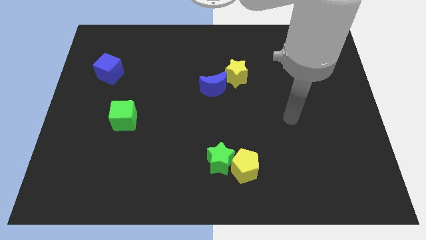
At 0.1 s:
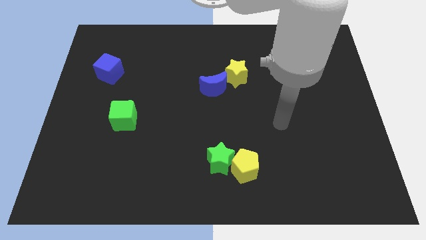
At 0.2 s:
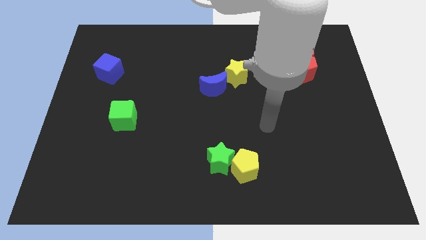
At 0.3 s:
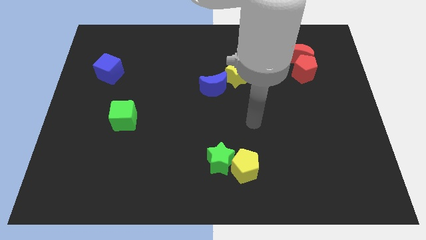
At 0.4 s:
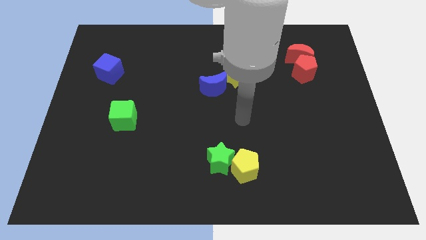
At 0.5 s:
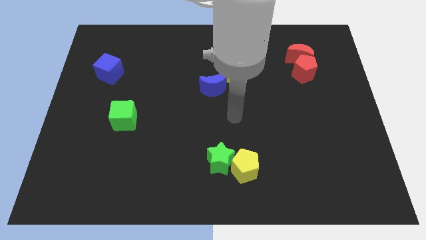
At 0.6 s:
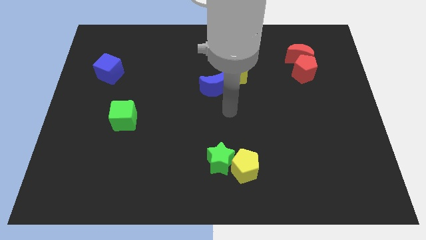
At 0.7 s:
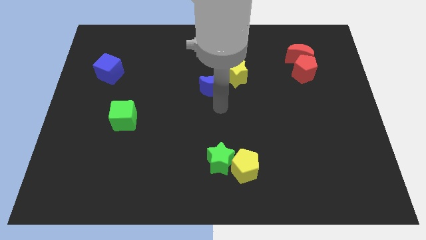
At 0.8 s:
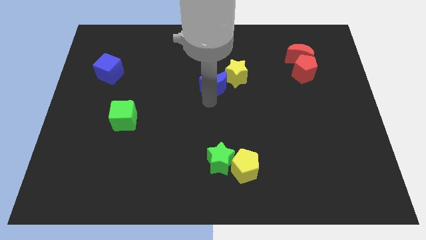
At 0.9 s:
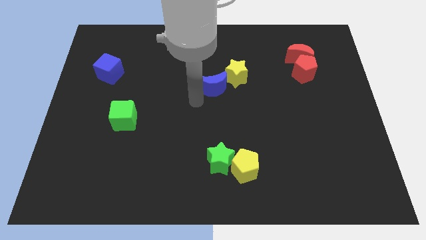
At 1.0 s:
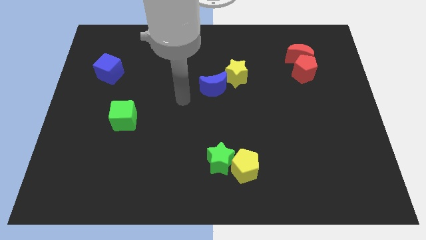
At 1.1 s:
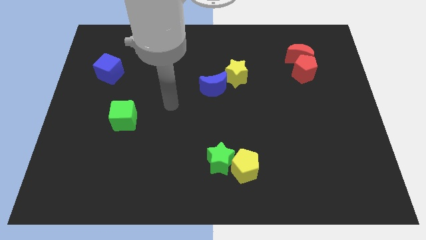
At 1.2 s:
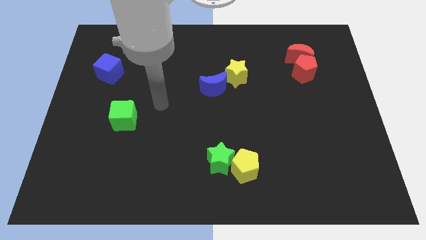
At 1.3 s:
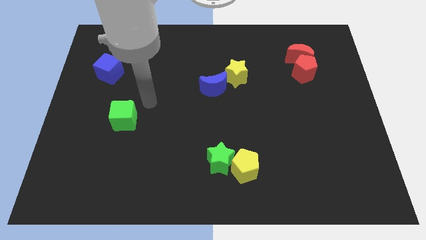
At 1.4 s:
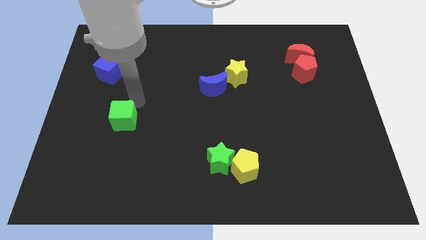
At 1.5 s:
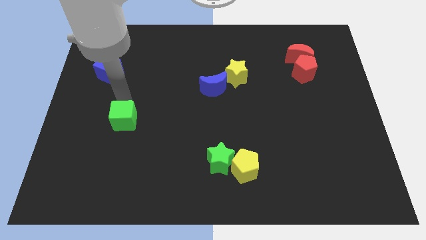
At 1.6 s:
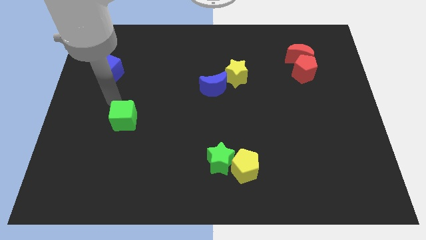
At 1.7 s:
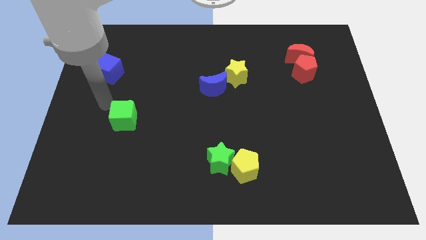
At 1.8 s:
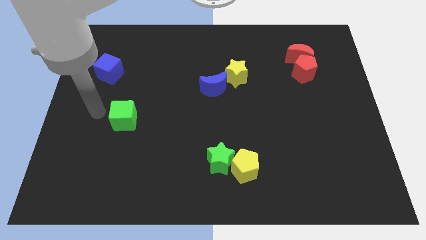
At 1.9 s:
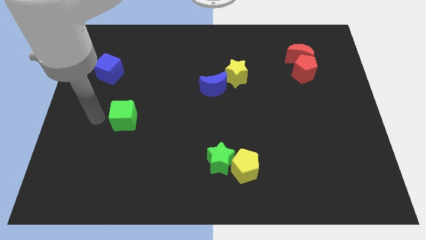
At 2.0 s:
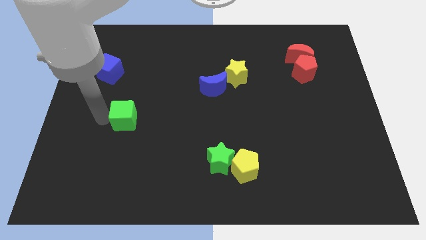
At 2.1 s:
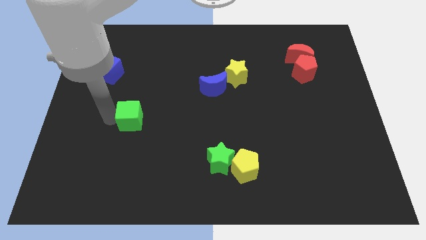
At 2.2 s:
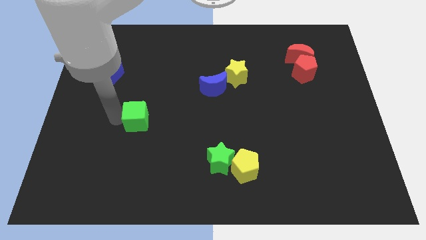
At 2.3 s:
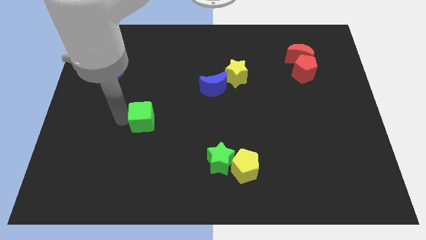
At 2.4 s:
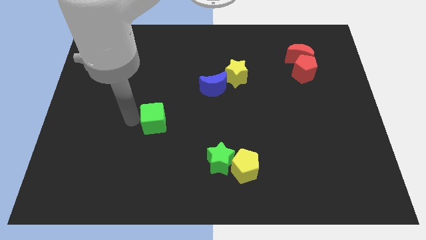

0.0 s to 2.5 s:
slightly move the green cube to the right

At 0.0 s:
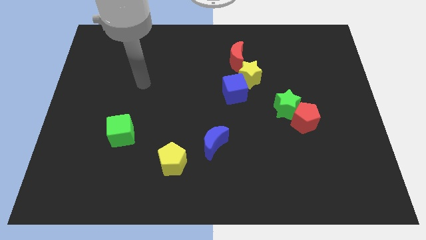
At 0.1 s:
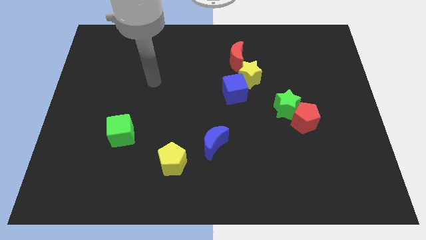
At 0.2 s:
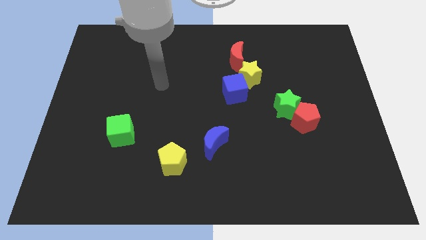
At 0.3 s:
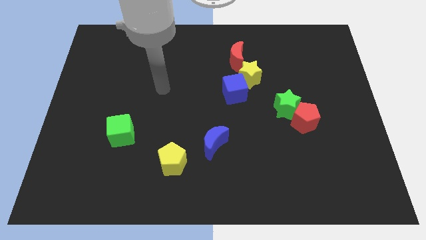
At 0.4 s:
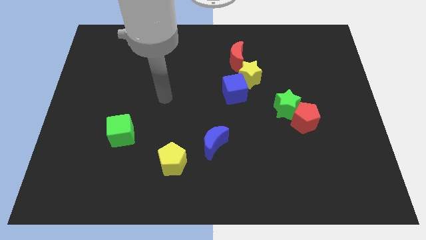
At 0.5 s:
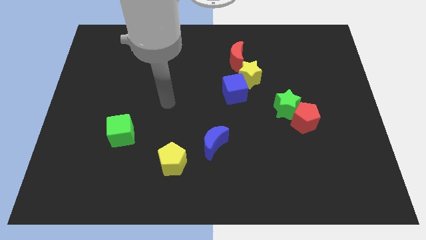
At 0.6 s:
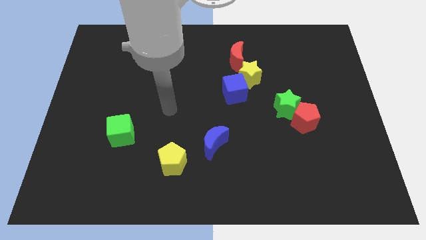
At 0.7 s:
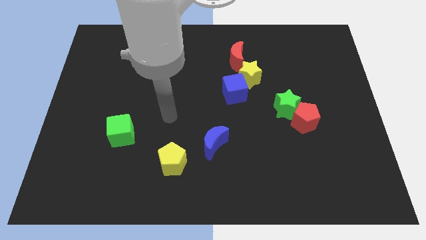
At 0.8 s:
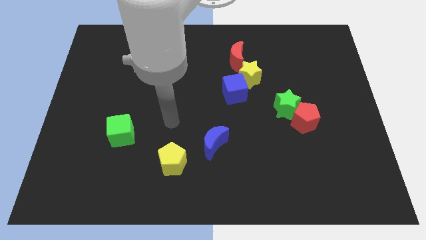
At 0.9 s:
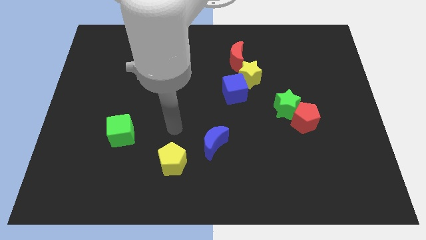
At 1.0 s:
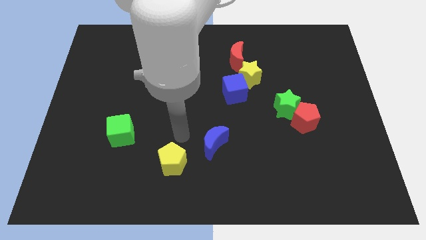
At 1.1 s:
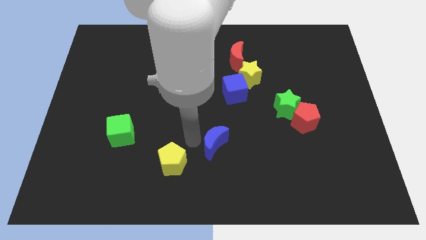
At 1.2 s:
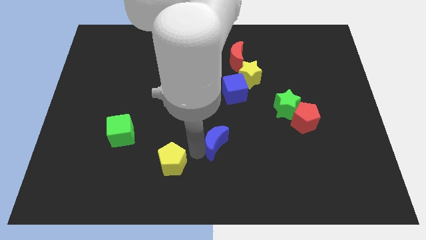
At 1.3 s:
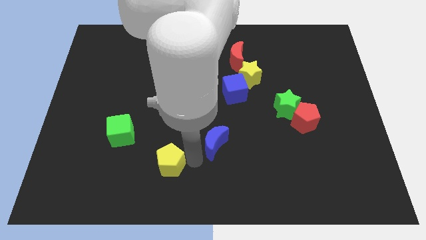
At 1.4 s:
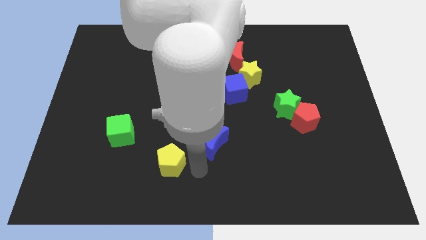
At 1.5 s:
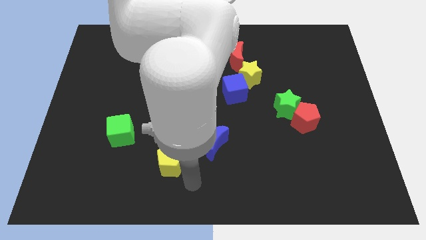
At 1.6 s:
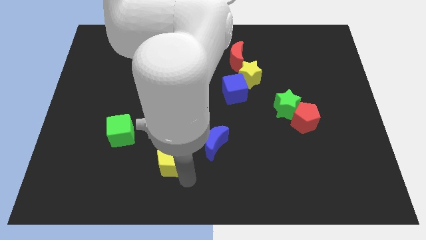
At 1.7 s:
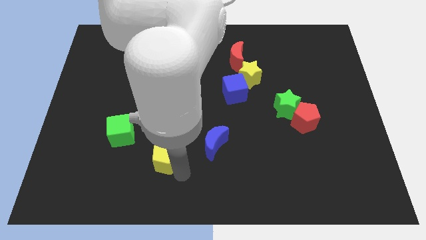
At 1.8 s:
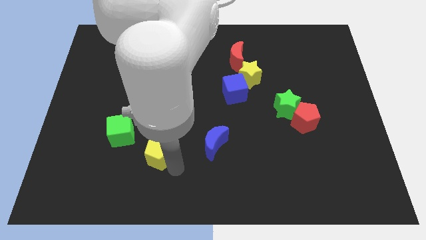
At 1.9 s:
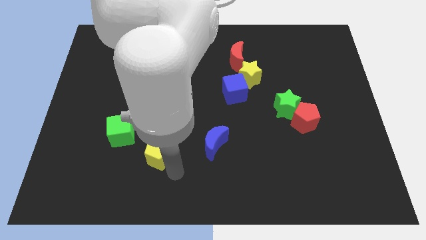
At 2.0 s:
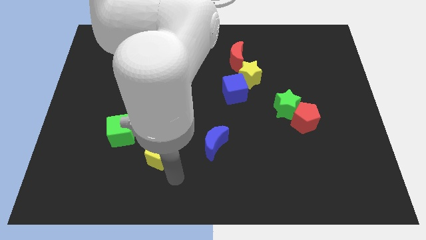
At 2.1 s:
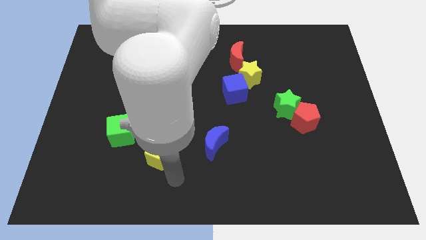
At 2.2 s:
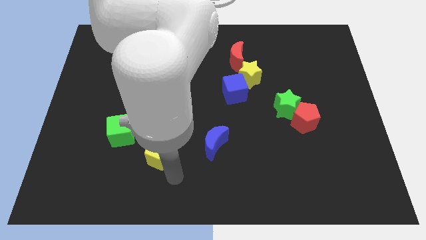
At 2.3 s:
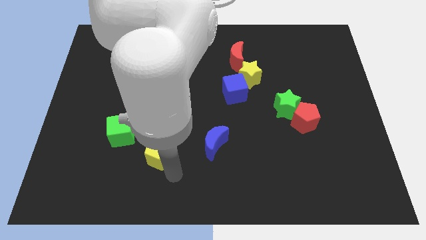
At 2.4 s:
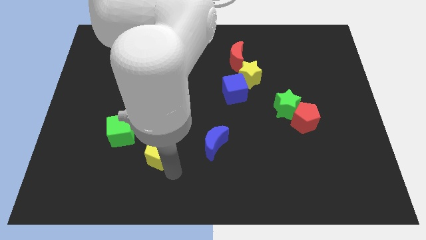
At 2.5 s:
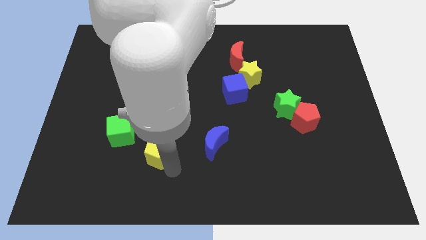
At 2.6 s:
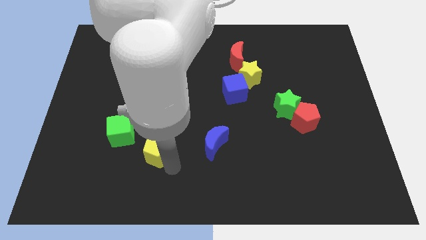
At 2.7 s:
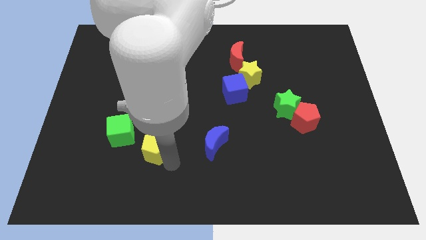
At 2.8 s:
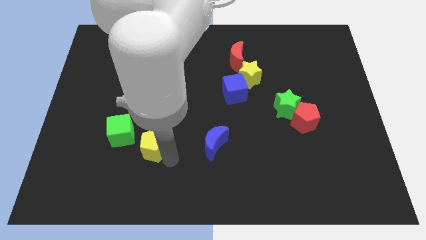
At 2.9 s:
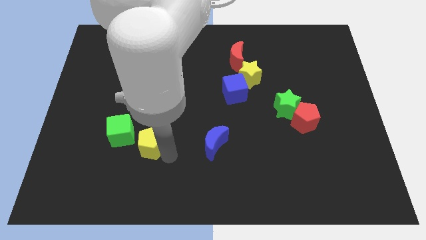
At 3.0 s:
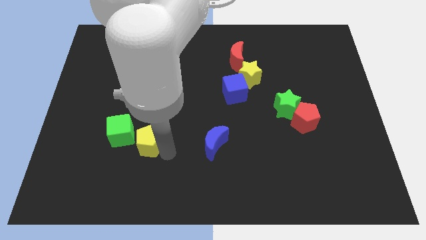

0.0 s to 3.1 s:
push the yellow pentagon diagonally upwards and left a little

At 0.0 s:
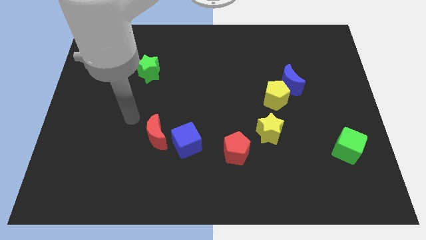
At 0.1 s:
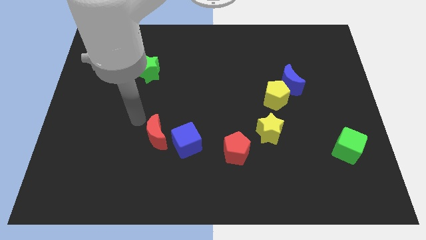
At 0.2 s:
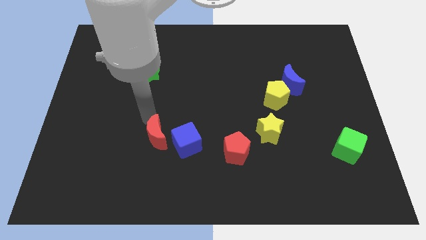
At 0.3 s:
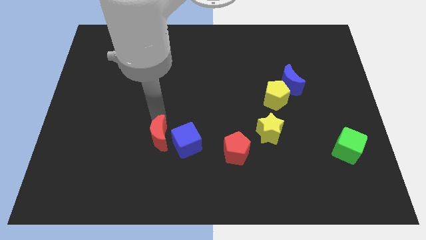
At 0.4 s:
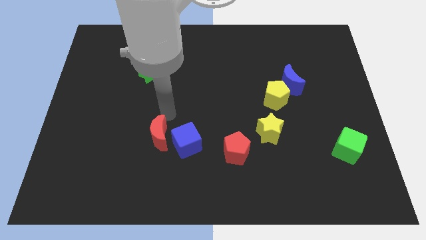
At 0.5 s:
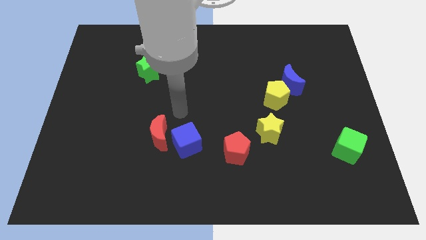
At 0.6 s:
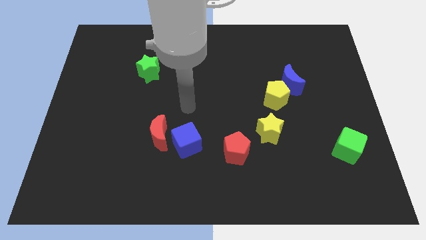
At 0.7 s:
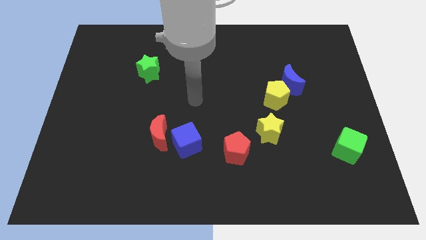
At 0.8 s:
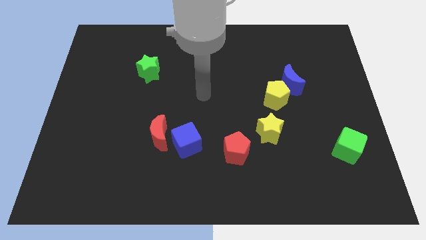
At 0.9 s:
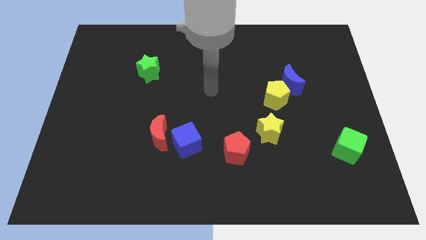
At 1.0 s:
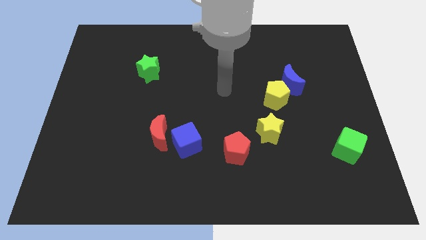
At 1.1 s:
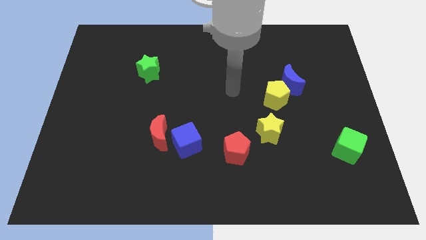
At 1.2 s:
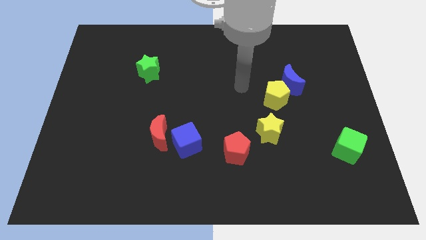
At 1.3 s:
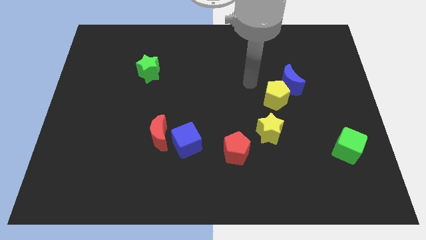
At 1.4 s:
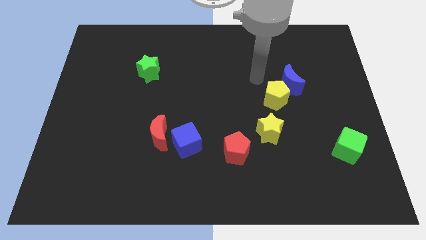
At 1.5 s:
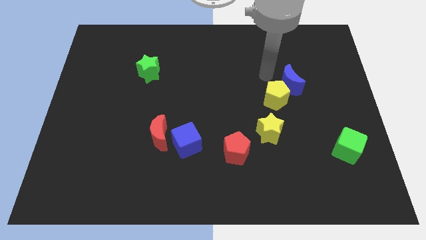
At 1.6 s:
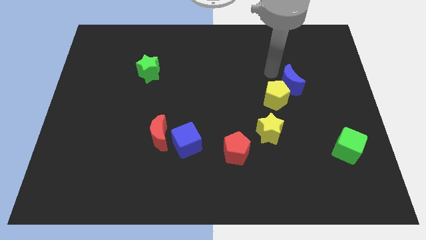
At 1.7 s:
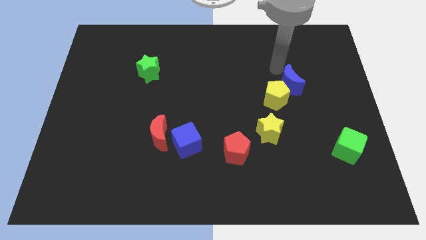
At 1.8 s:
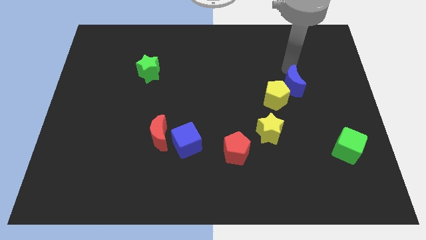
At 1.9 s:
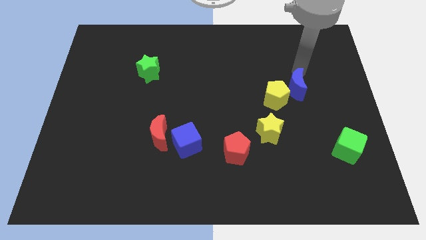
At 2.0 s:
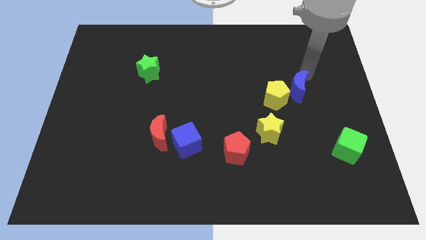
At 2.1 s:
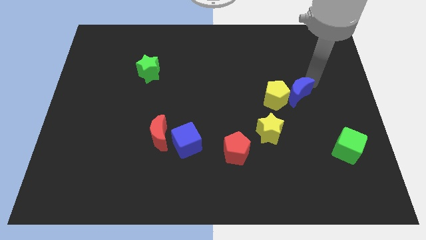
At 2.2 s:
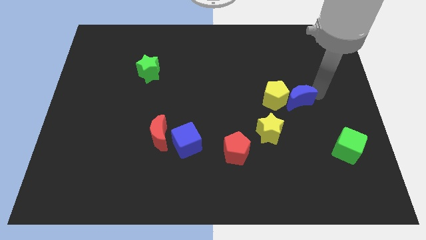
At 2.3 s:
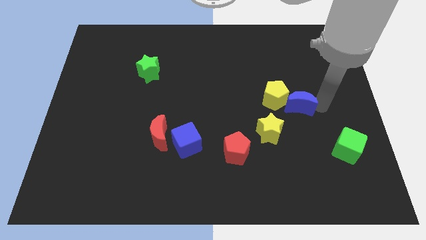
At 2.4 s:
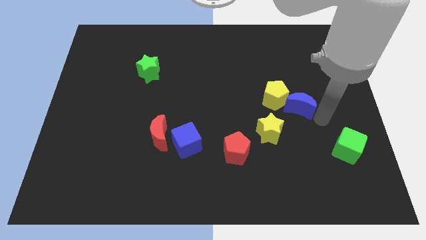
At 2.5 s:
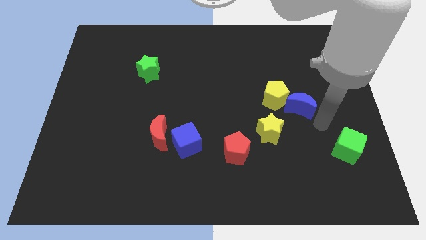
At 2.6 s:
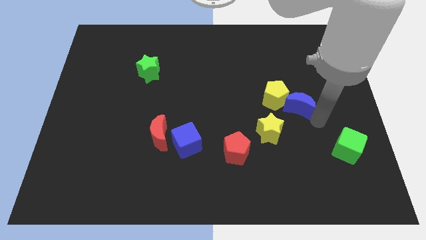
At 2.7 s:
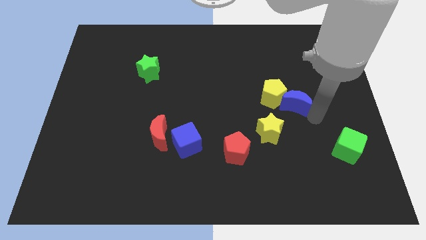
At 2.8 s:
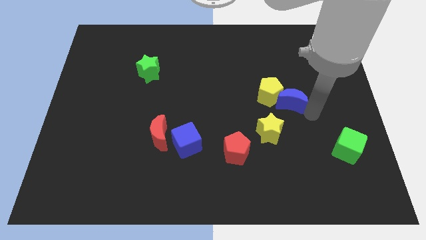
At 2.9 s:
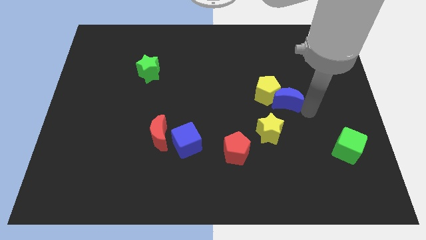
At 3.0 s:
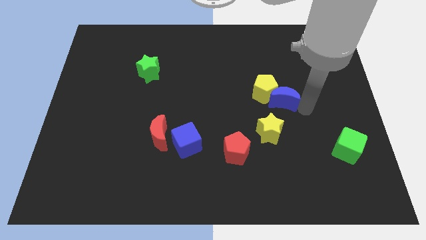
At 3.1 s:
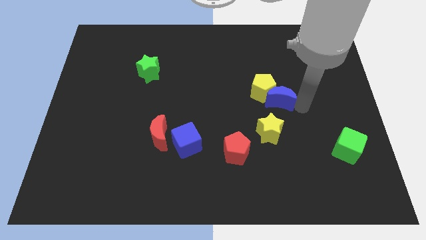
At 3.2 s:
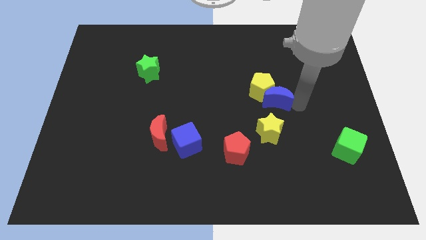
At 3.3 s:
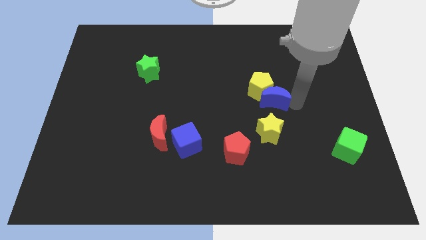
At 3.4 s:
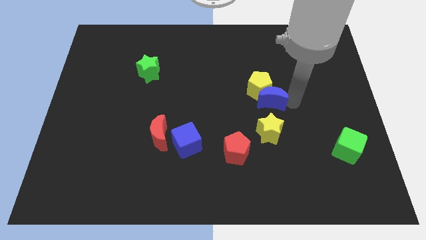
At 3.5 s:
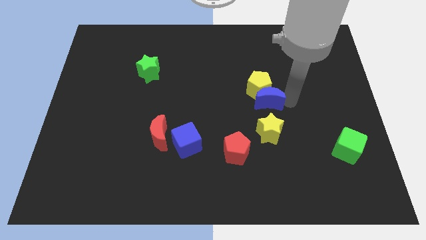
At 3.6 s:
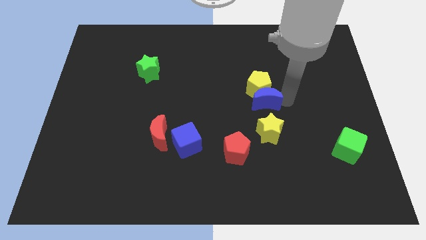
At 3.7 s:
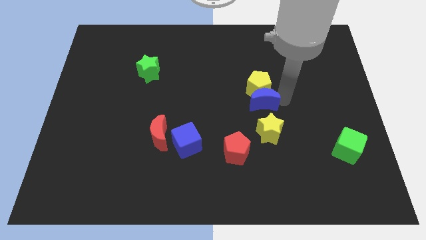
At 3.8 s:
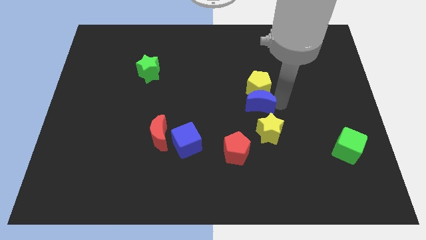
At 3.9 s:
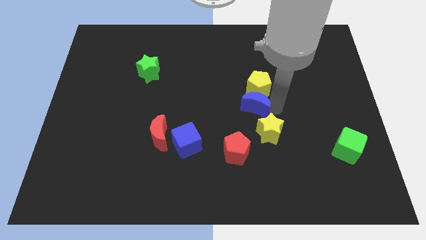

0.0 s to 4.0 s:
push the blue moon to the left a little bit
